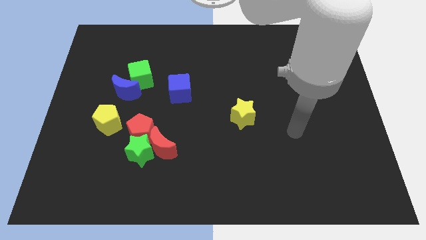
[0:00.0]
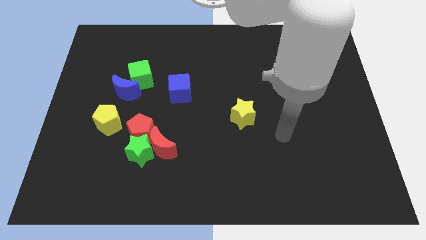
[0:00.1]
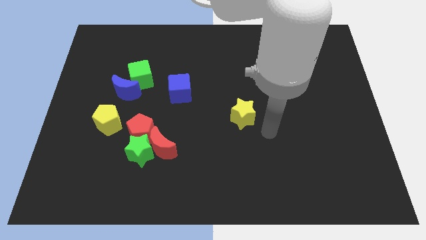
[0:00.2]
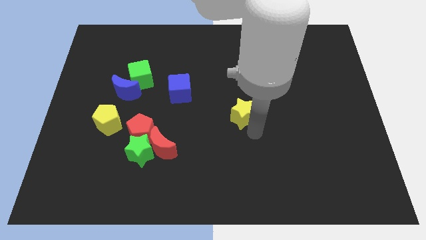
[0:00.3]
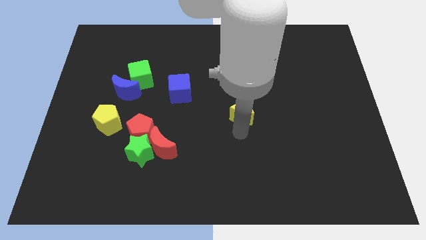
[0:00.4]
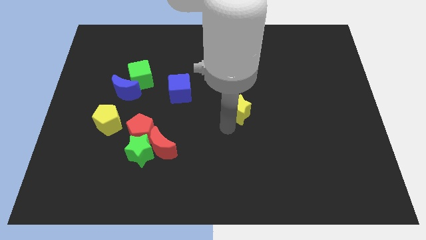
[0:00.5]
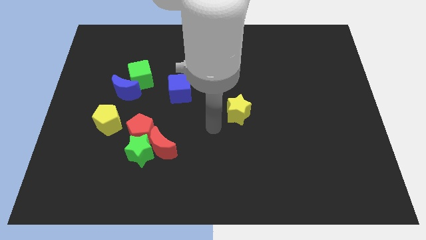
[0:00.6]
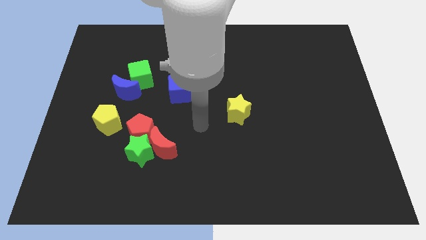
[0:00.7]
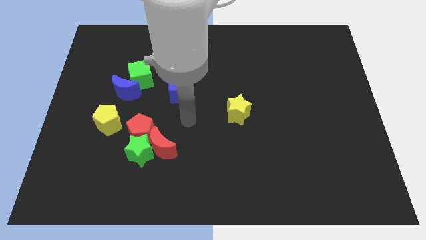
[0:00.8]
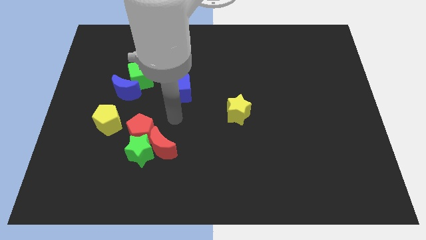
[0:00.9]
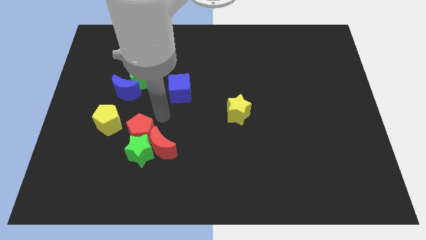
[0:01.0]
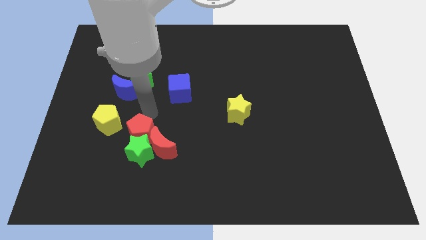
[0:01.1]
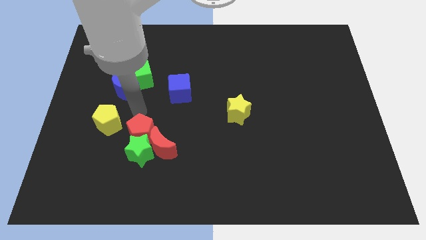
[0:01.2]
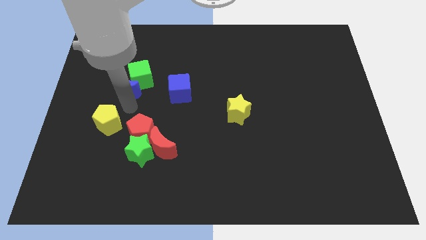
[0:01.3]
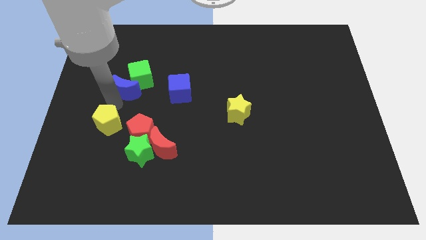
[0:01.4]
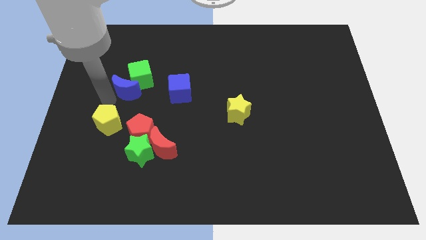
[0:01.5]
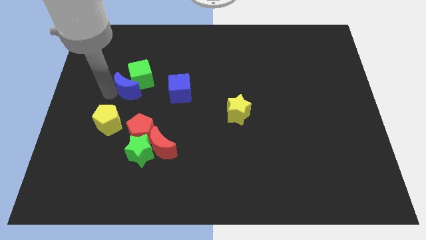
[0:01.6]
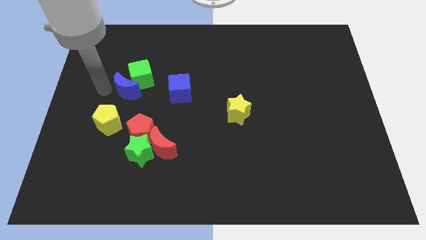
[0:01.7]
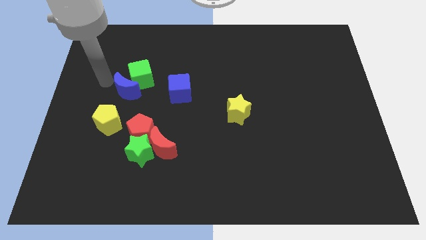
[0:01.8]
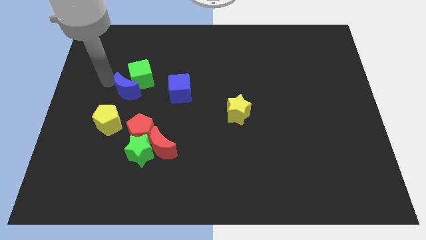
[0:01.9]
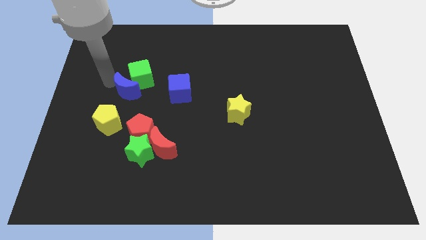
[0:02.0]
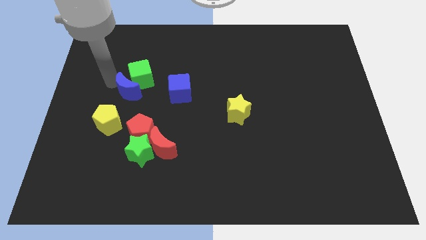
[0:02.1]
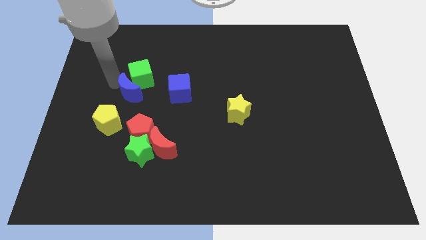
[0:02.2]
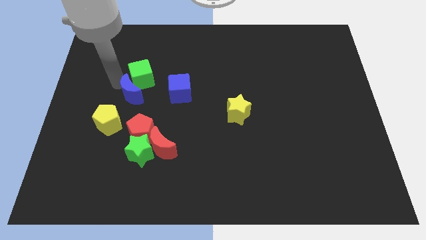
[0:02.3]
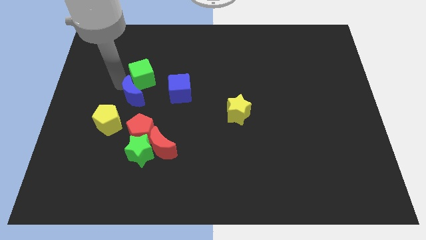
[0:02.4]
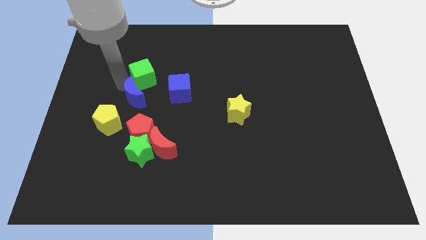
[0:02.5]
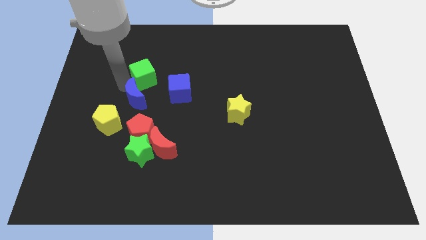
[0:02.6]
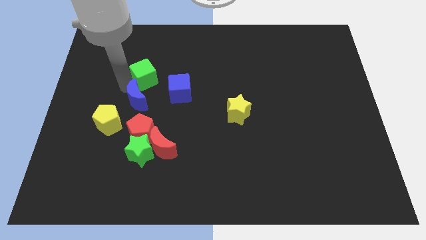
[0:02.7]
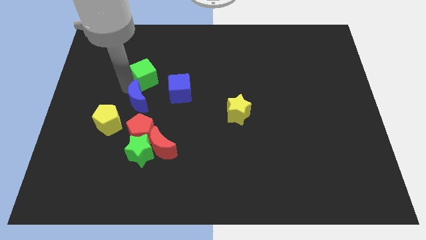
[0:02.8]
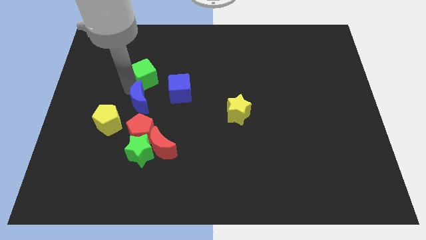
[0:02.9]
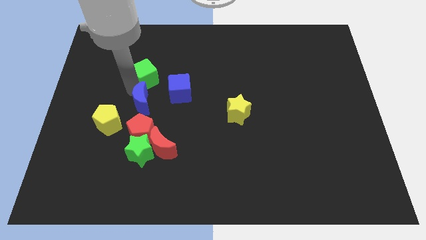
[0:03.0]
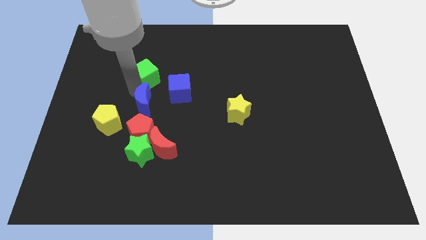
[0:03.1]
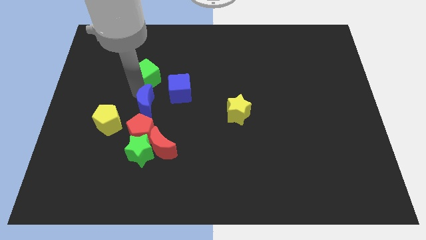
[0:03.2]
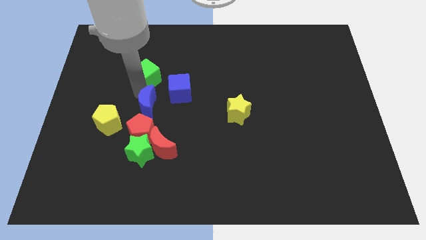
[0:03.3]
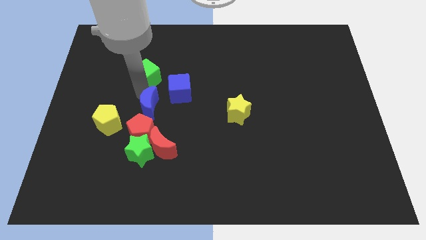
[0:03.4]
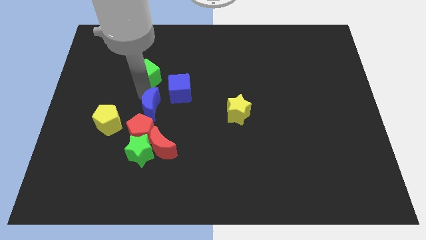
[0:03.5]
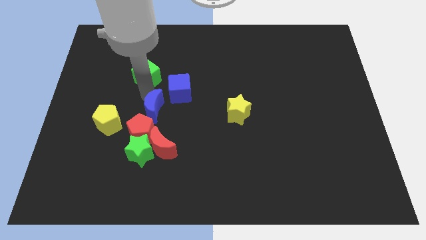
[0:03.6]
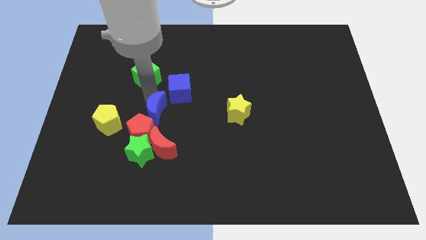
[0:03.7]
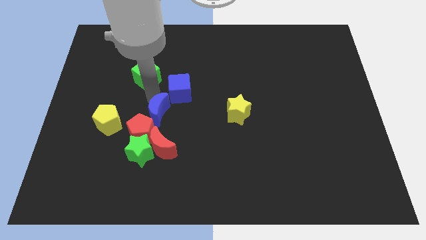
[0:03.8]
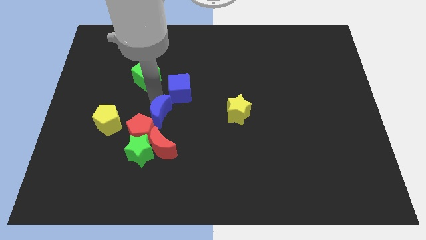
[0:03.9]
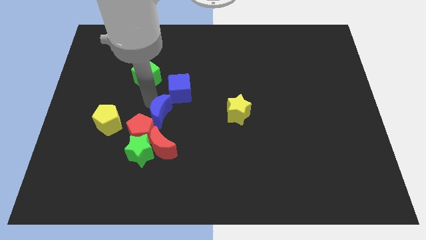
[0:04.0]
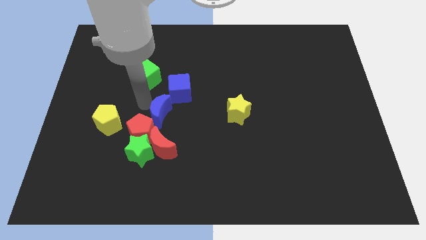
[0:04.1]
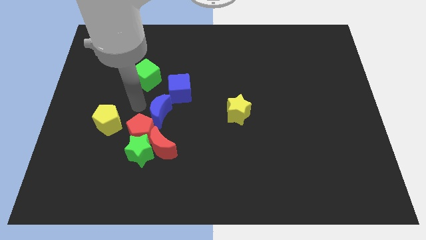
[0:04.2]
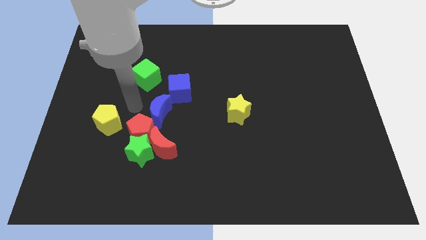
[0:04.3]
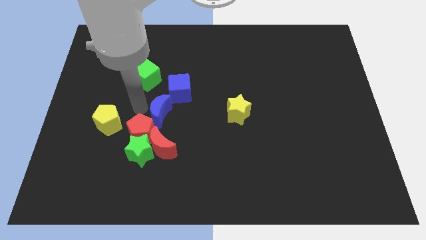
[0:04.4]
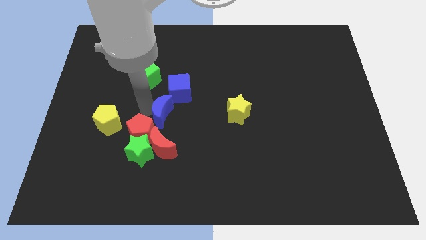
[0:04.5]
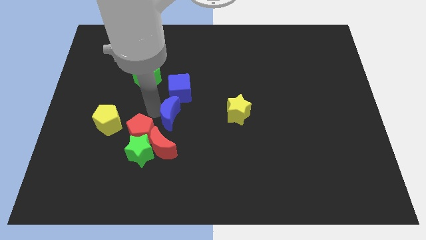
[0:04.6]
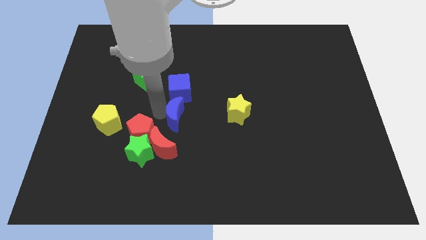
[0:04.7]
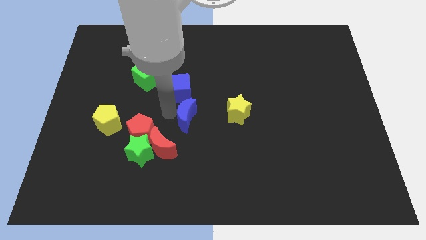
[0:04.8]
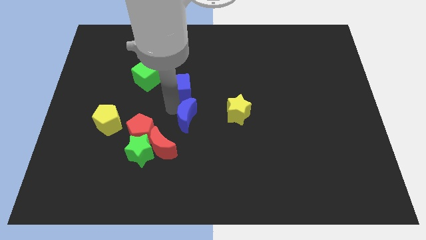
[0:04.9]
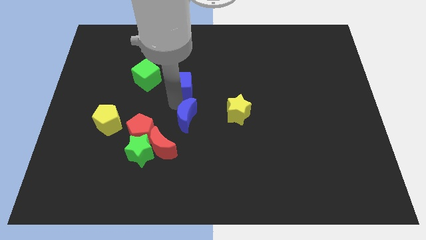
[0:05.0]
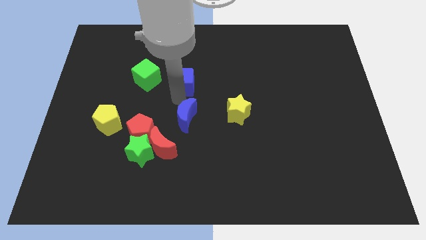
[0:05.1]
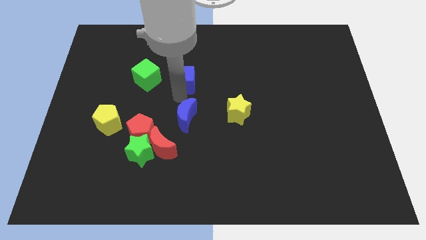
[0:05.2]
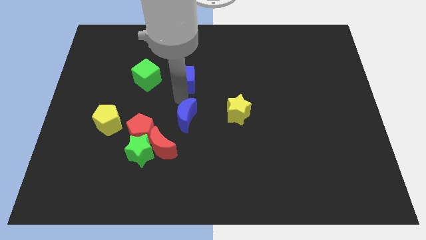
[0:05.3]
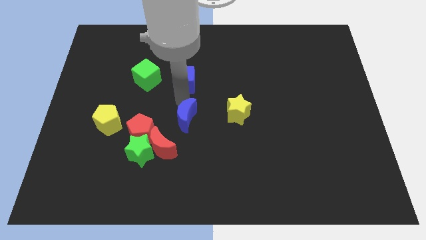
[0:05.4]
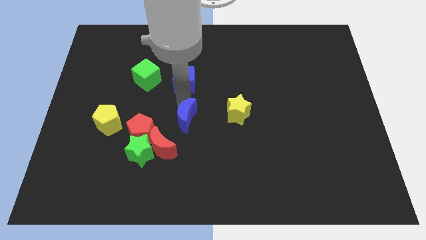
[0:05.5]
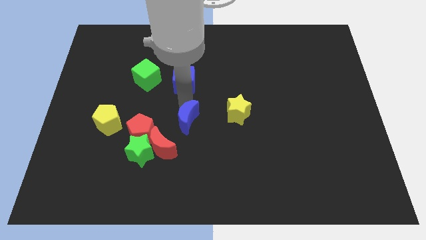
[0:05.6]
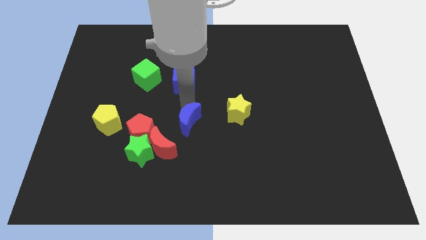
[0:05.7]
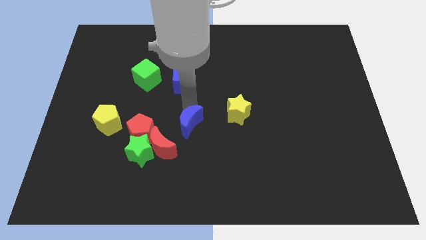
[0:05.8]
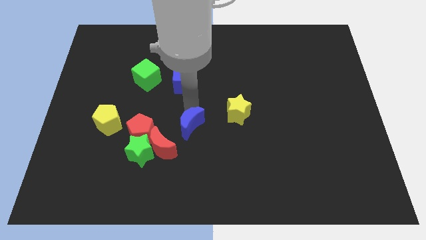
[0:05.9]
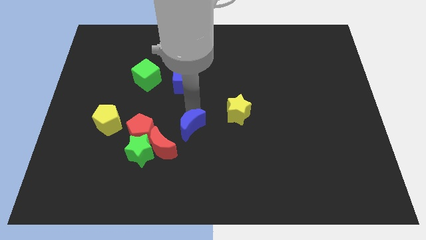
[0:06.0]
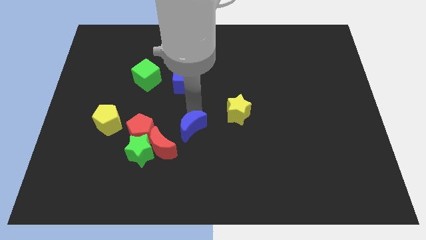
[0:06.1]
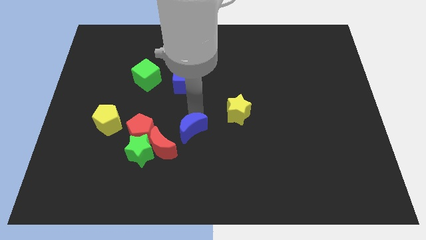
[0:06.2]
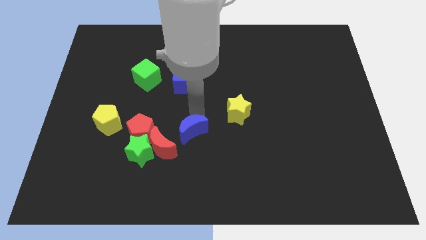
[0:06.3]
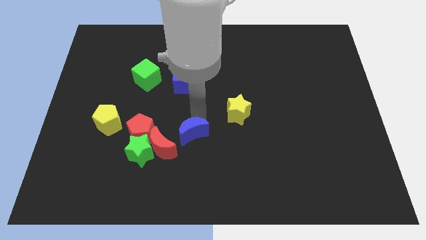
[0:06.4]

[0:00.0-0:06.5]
slide the blue moon downwards and right

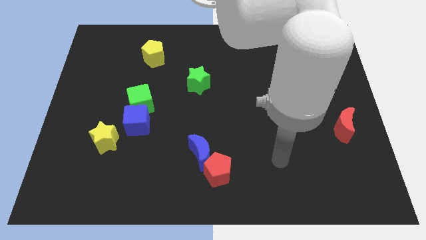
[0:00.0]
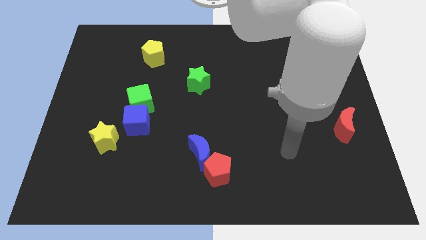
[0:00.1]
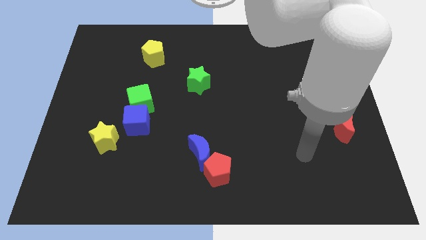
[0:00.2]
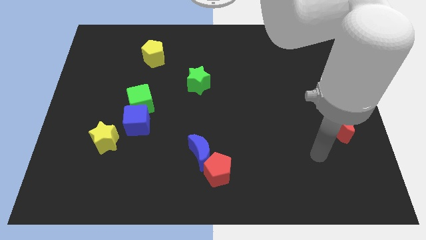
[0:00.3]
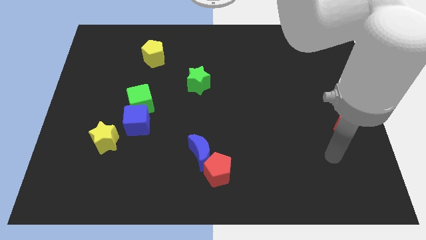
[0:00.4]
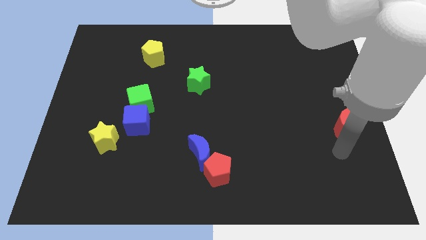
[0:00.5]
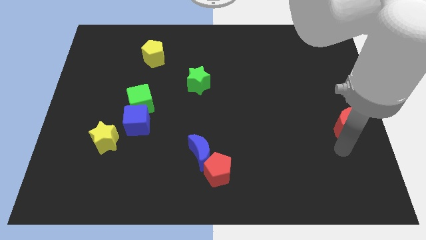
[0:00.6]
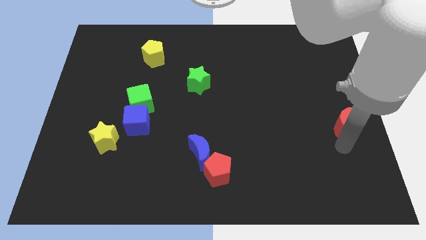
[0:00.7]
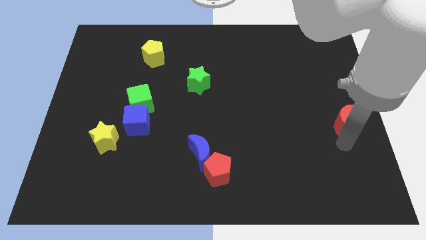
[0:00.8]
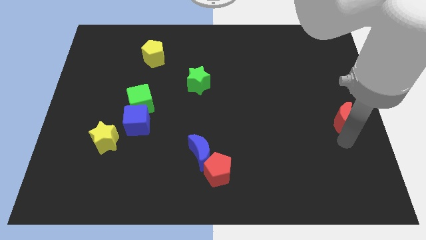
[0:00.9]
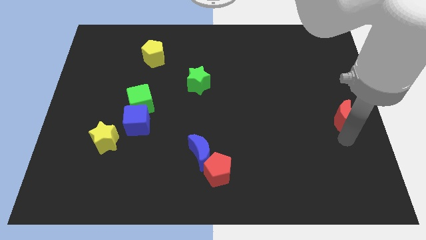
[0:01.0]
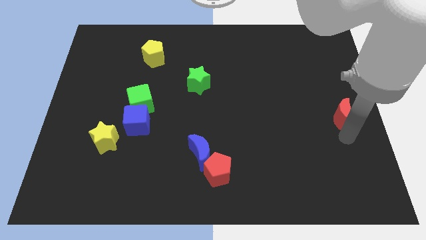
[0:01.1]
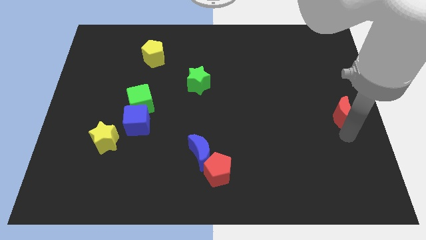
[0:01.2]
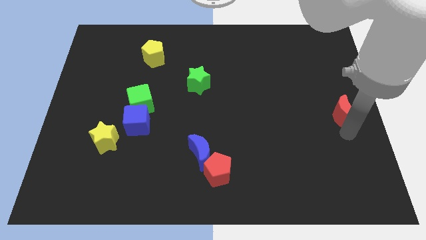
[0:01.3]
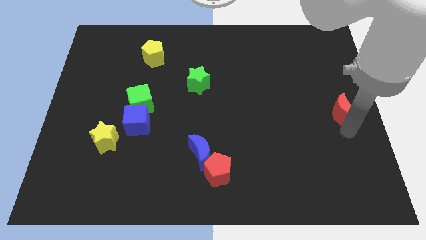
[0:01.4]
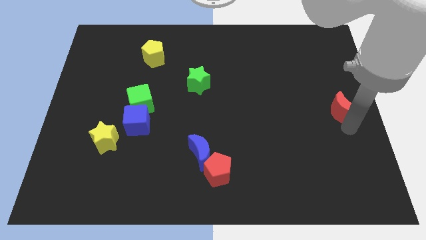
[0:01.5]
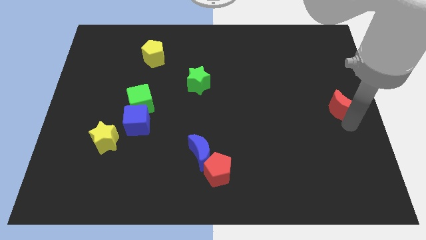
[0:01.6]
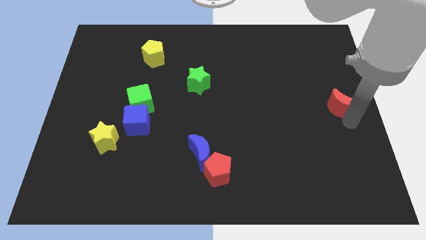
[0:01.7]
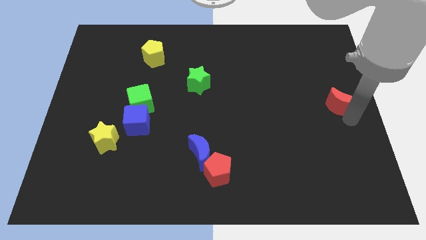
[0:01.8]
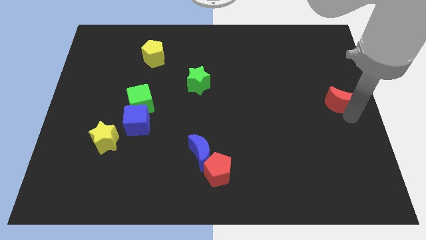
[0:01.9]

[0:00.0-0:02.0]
slide the red moon upwards somewhat
